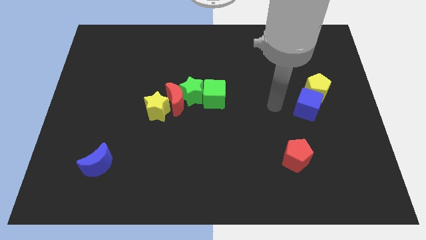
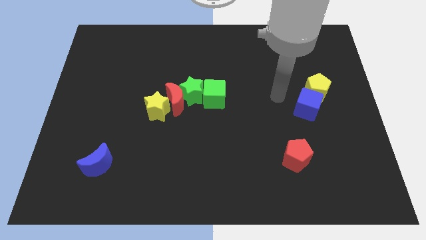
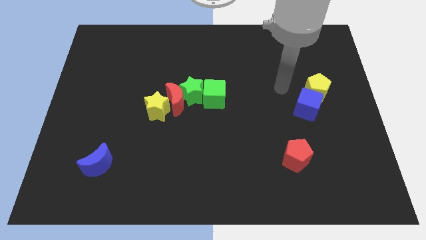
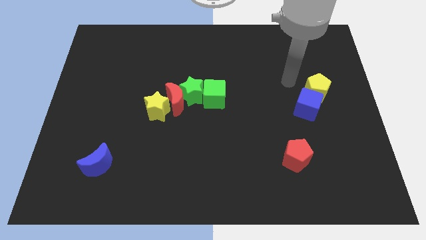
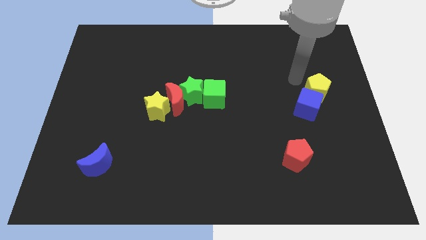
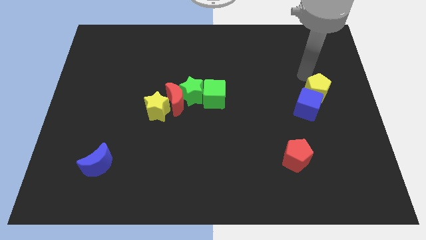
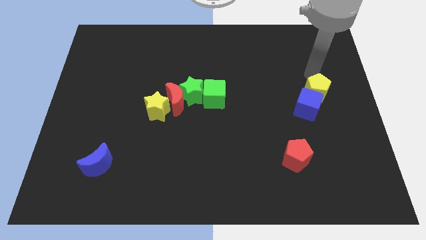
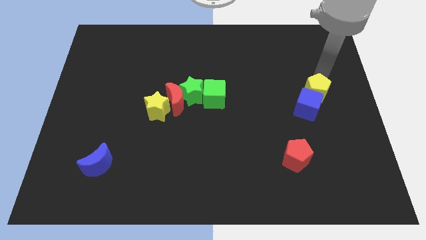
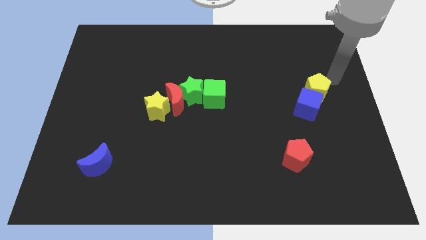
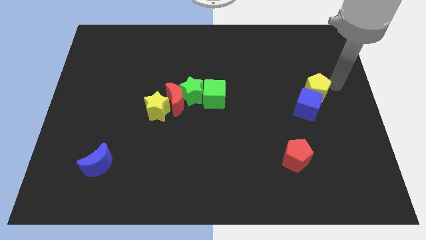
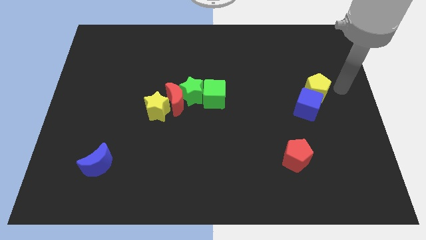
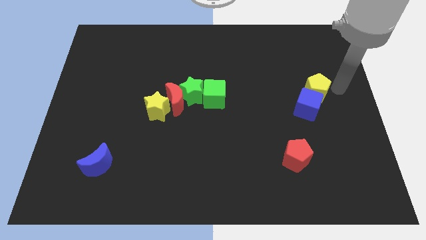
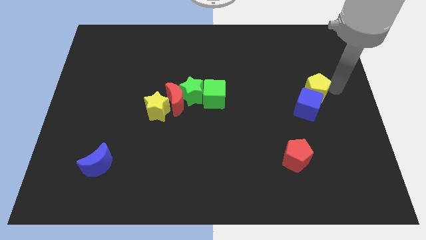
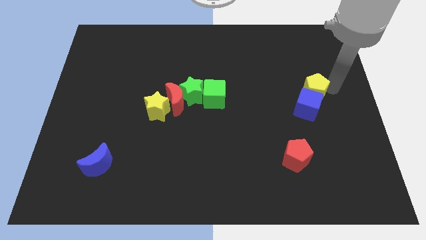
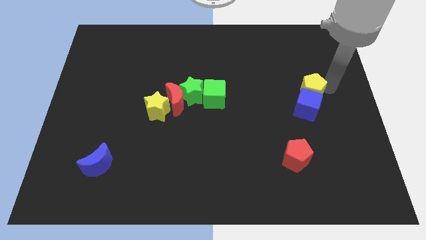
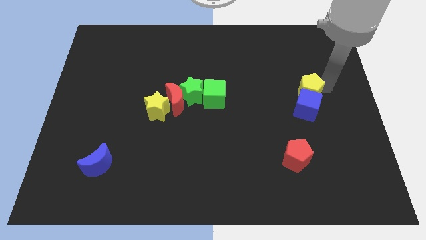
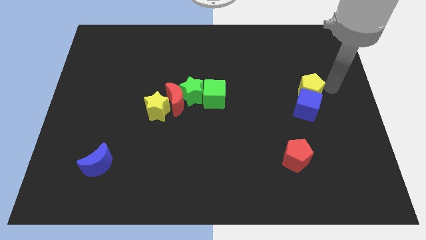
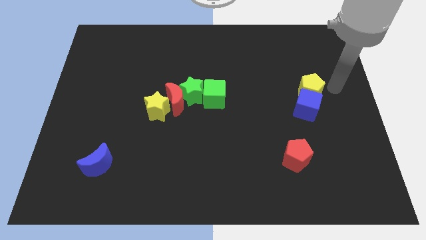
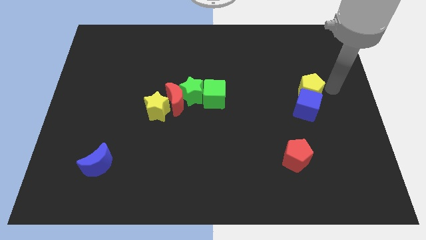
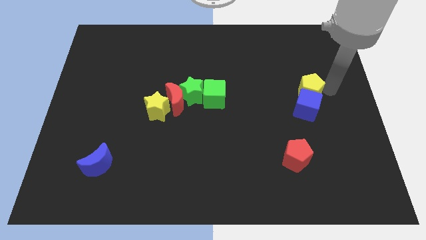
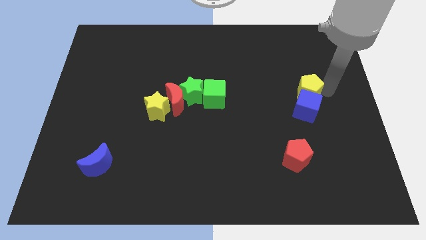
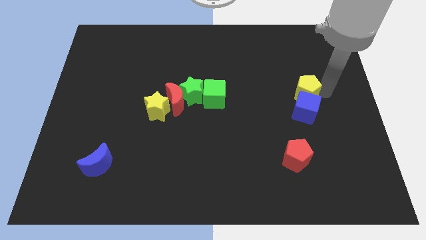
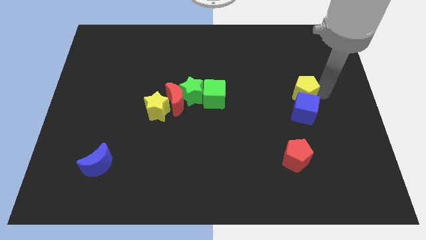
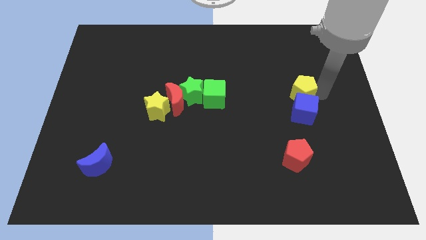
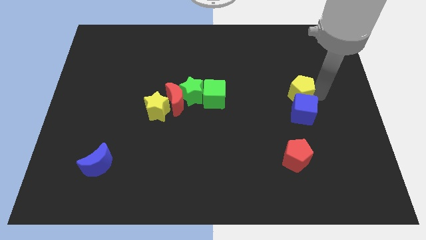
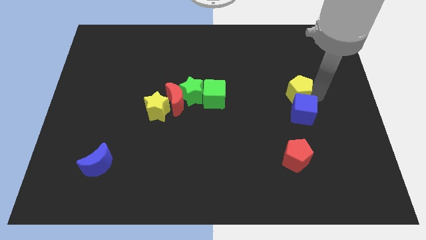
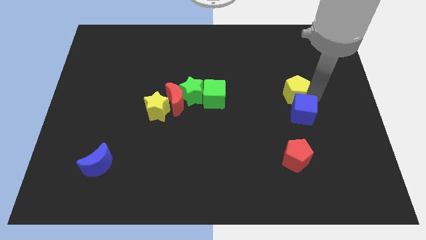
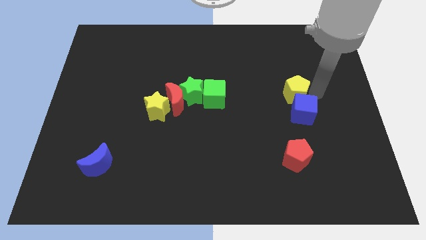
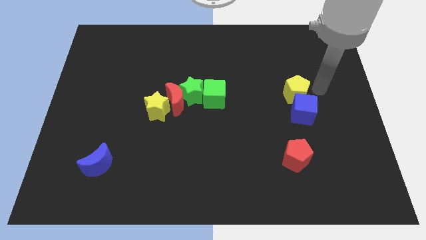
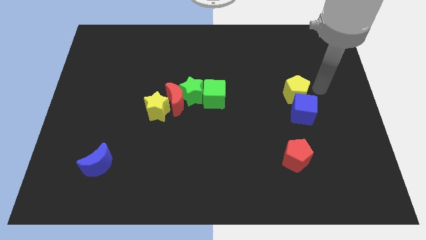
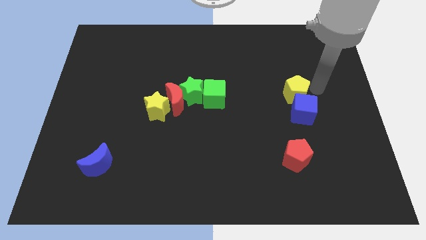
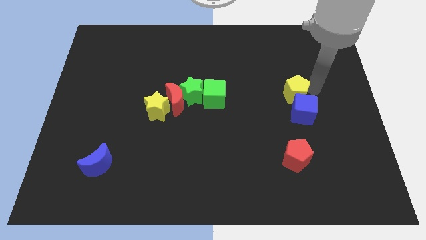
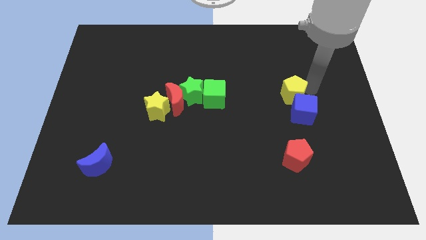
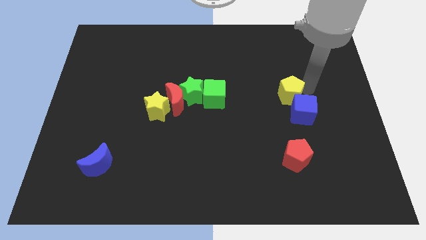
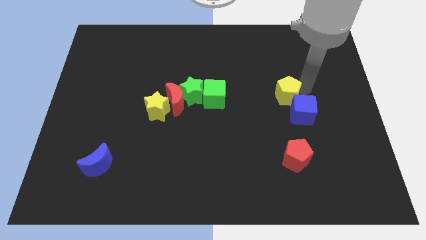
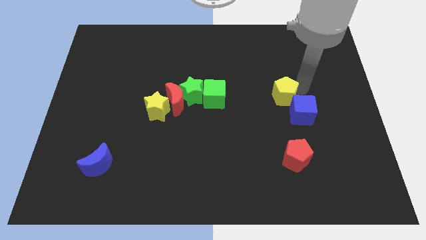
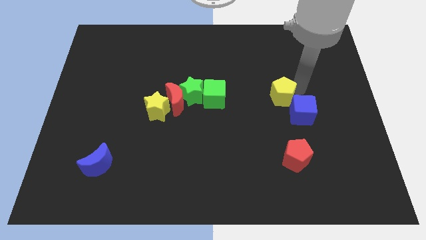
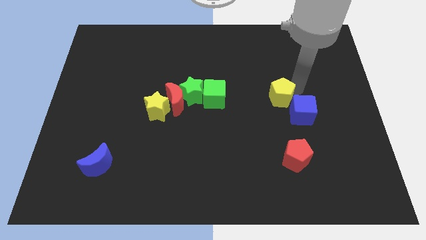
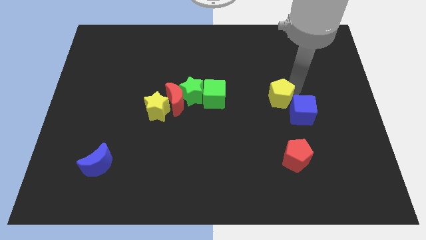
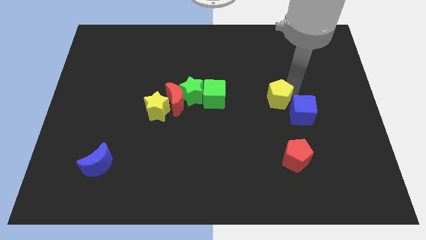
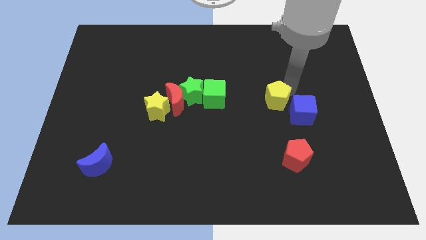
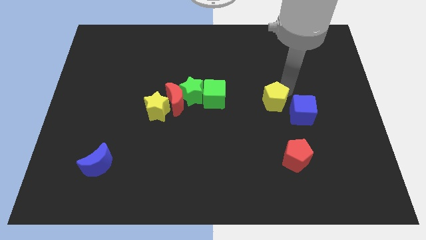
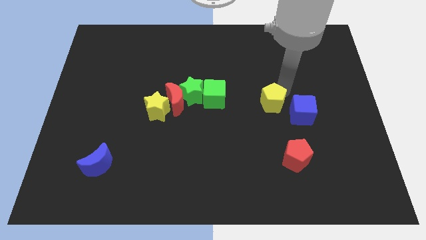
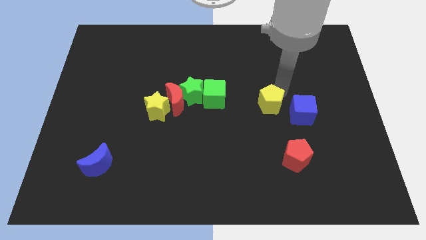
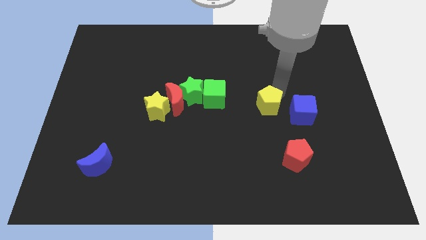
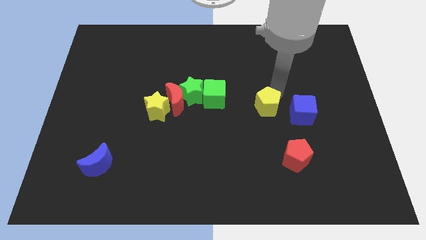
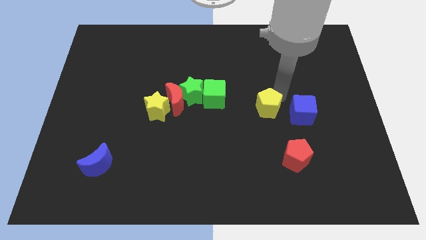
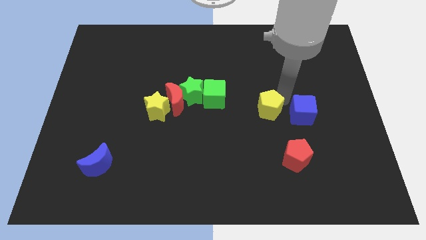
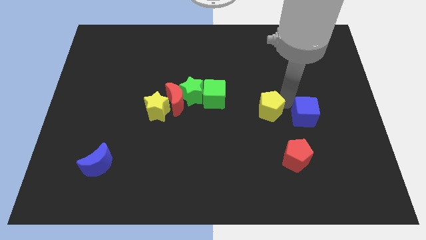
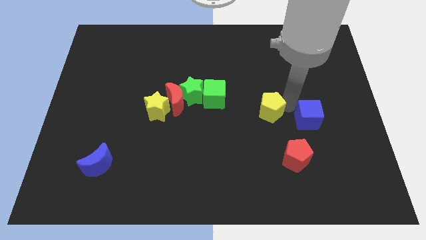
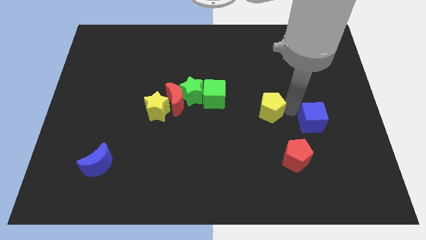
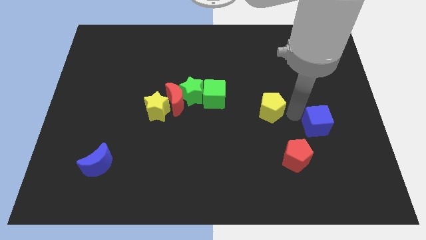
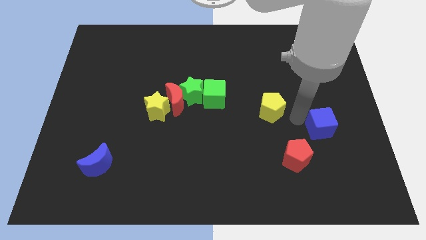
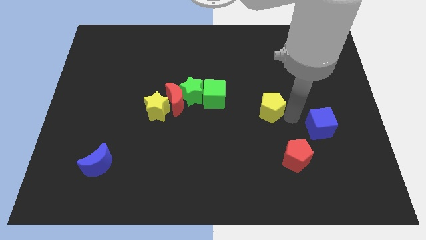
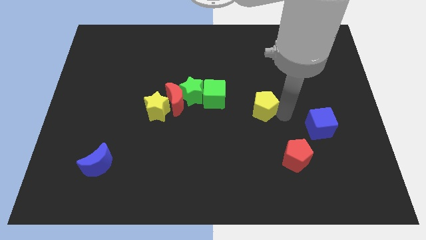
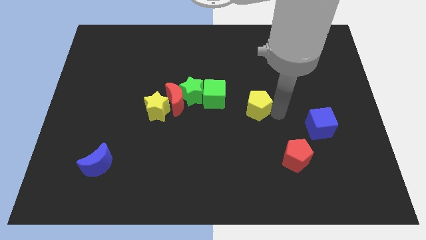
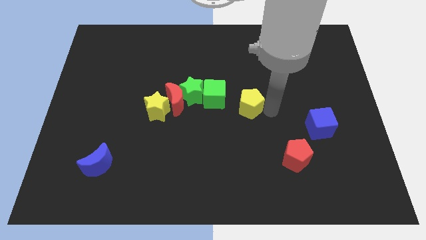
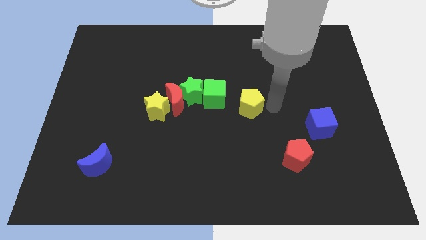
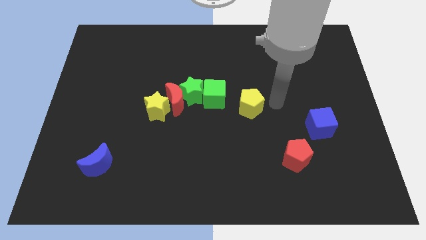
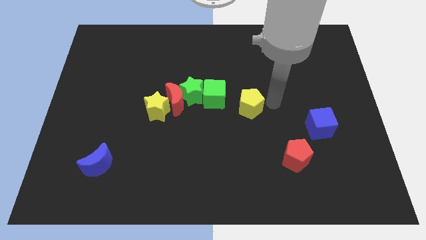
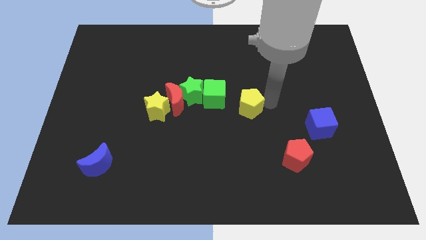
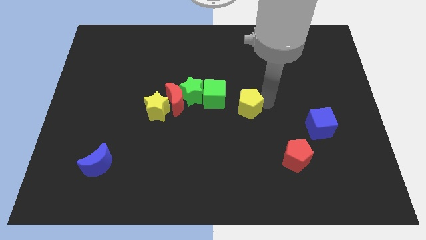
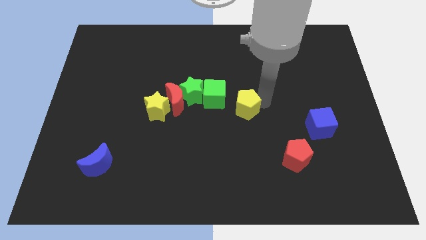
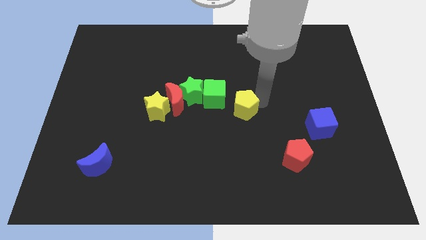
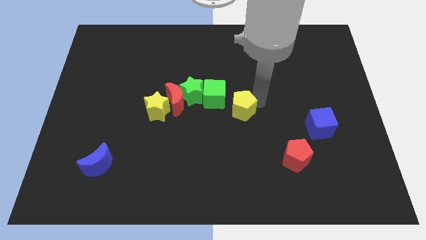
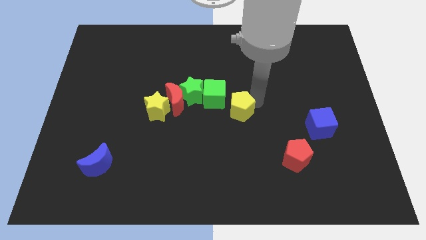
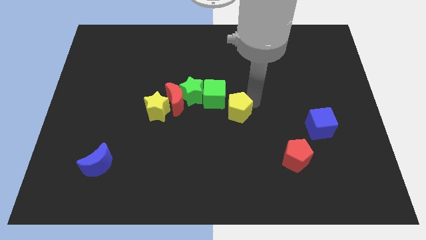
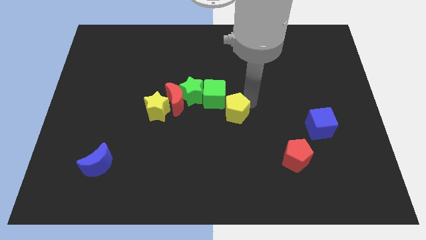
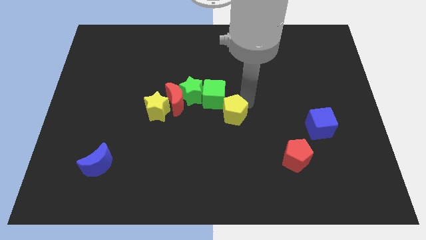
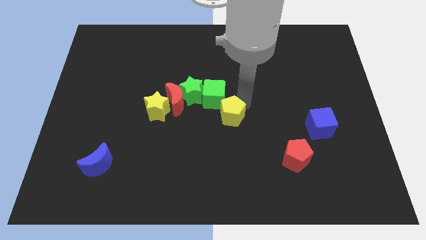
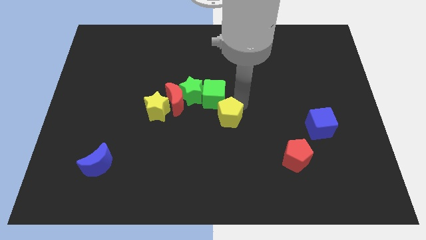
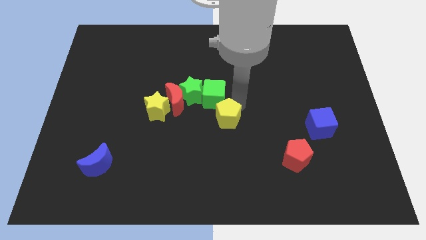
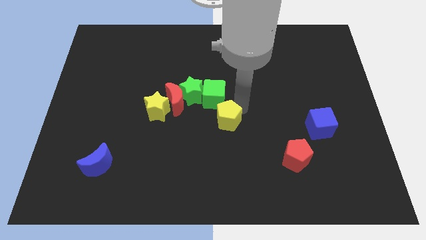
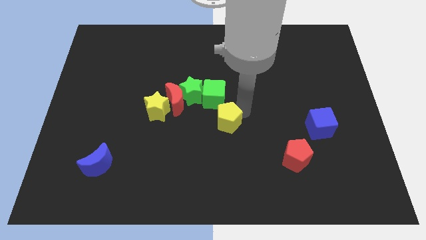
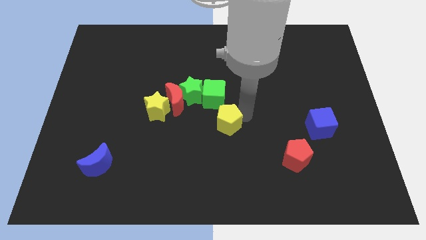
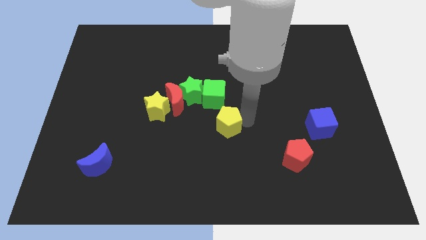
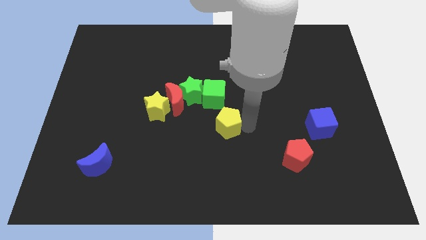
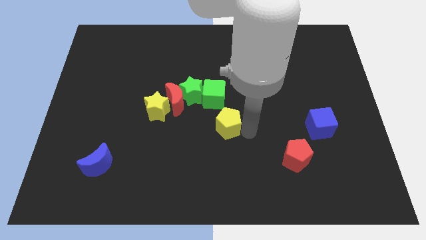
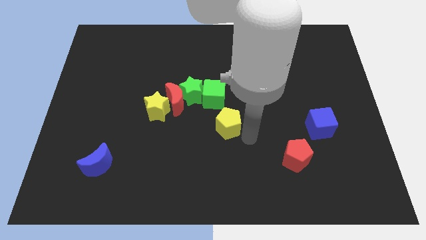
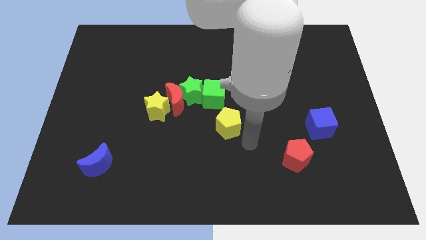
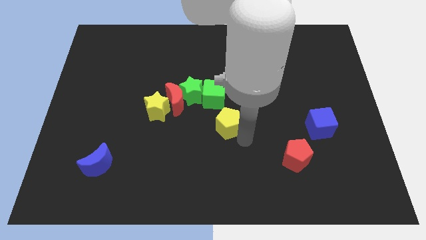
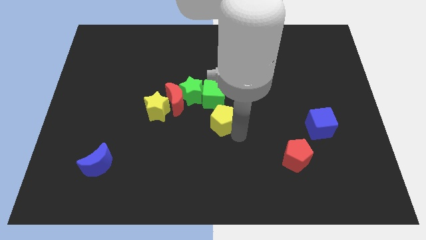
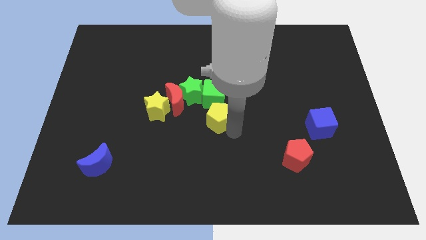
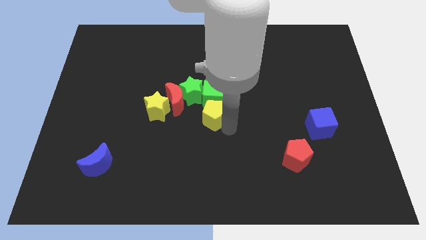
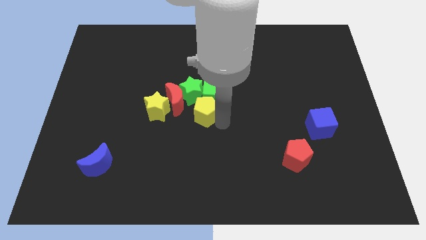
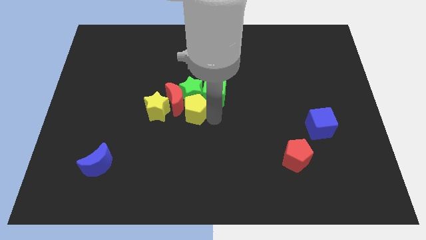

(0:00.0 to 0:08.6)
move the yellow pentagon to the red moon
